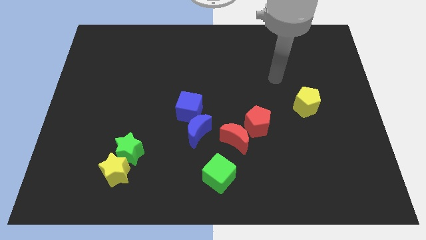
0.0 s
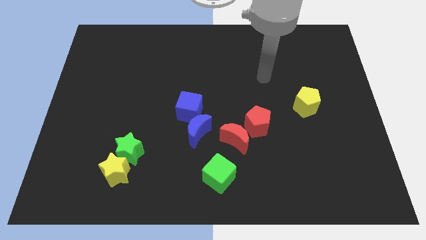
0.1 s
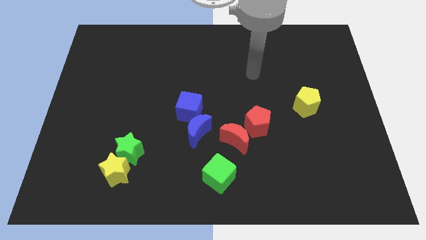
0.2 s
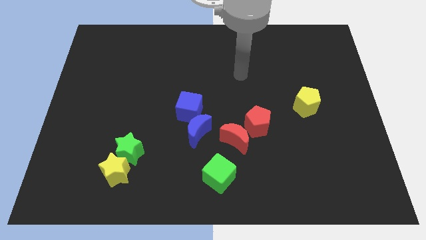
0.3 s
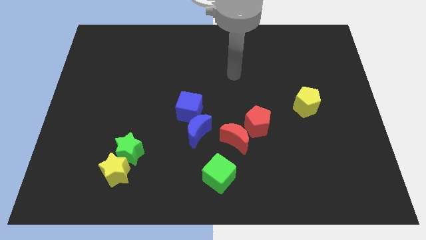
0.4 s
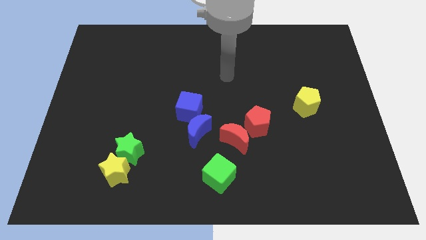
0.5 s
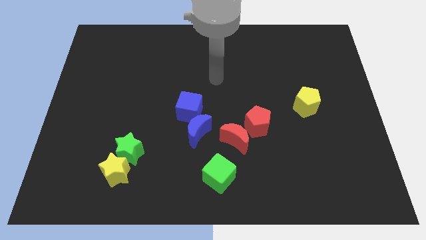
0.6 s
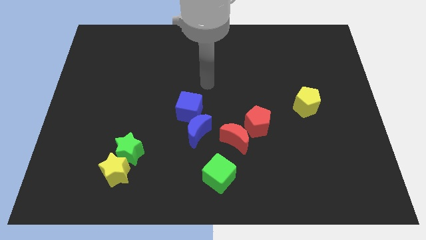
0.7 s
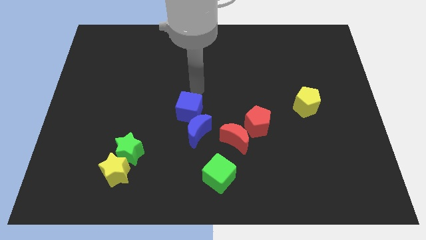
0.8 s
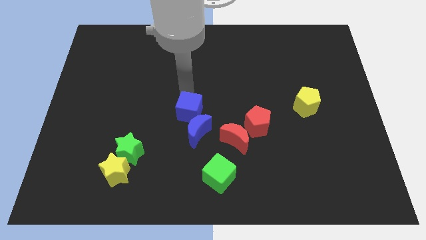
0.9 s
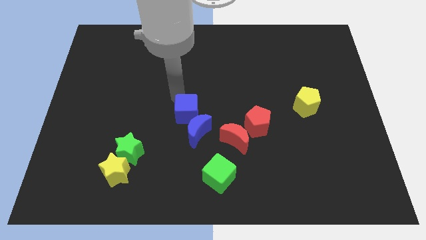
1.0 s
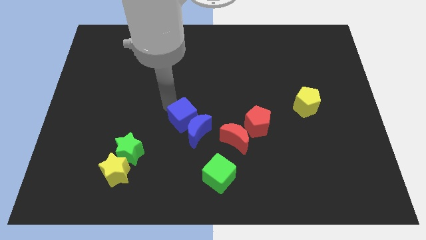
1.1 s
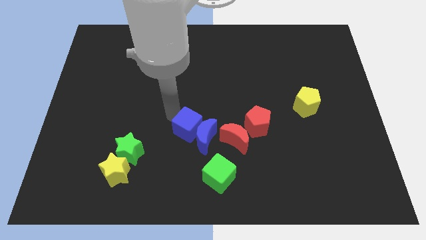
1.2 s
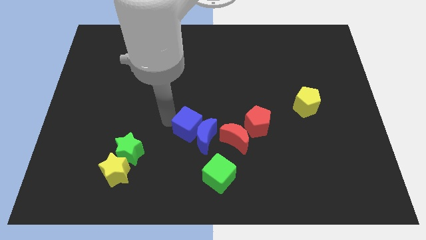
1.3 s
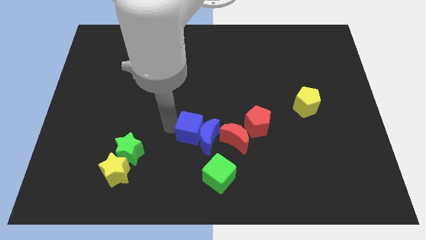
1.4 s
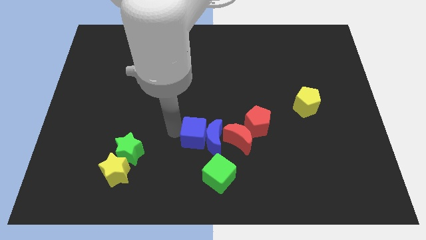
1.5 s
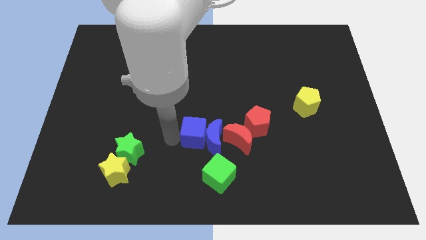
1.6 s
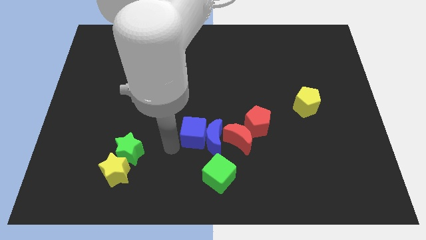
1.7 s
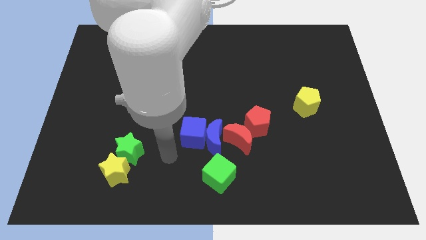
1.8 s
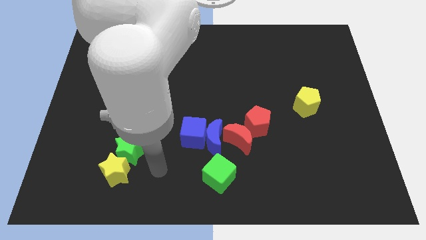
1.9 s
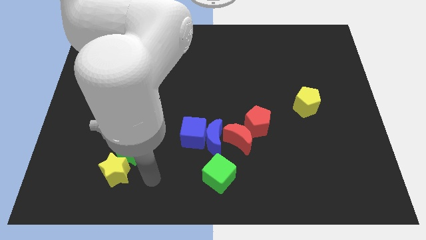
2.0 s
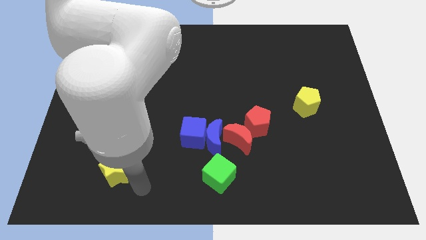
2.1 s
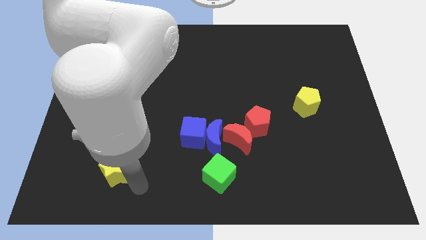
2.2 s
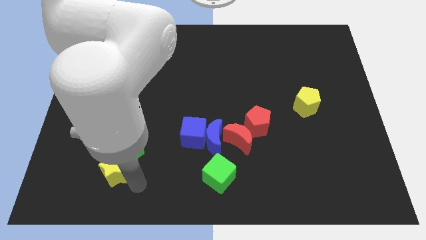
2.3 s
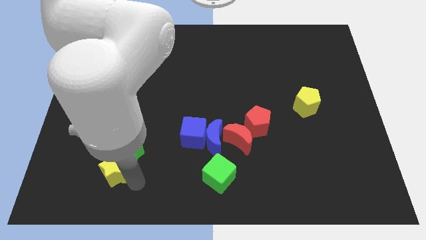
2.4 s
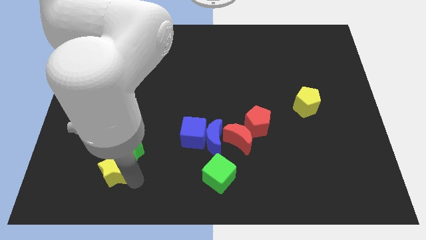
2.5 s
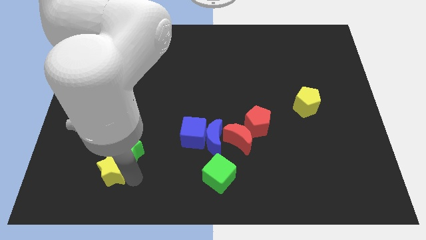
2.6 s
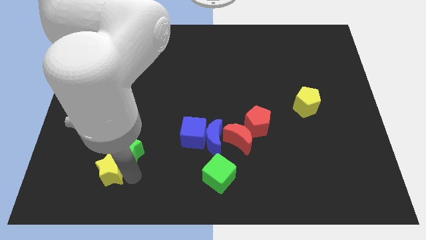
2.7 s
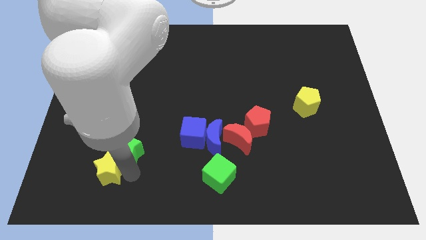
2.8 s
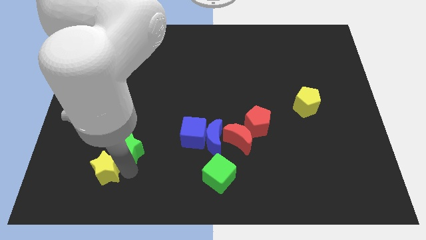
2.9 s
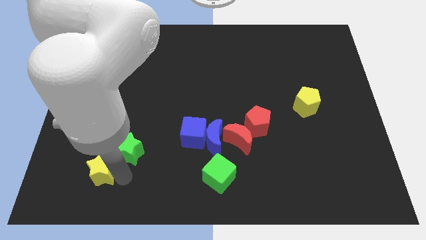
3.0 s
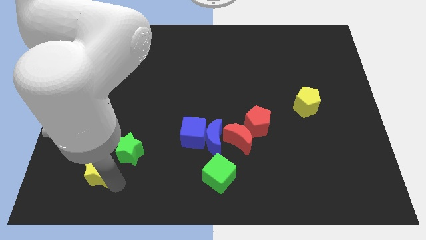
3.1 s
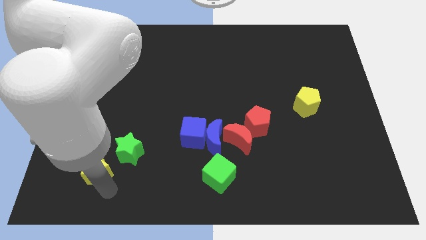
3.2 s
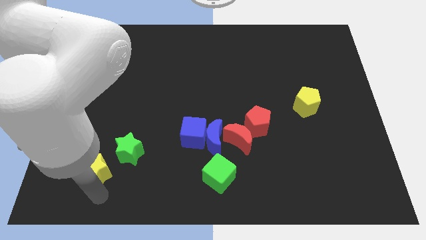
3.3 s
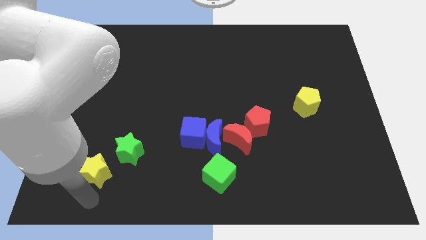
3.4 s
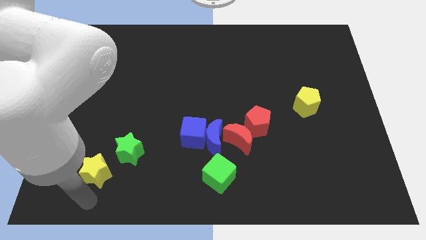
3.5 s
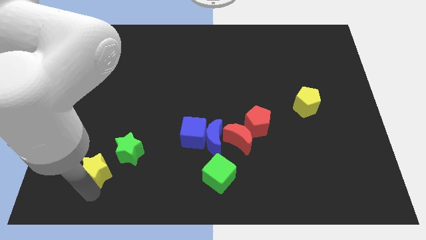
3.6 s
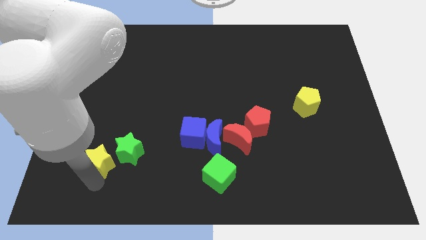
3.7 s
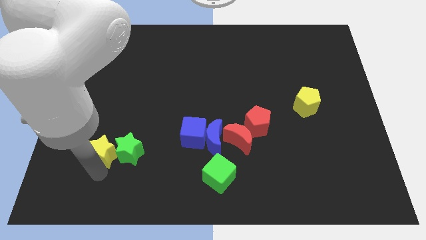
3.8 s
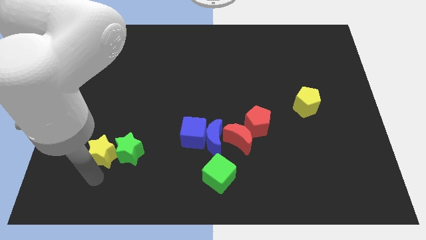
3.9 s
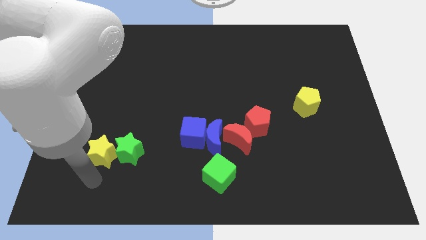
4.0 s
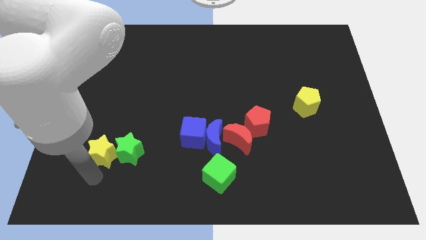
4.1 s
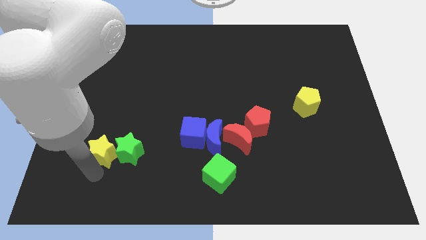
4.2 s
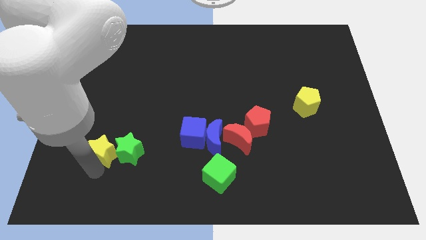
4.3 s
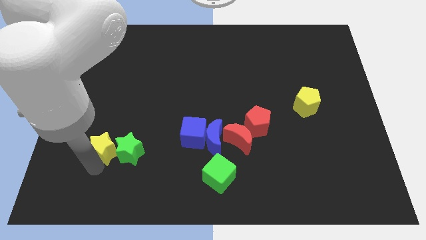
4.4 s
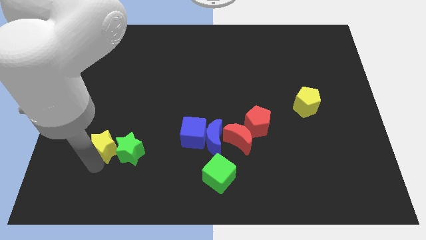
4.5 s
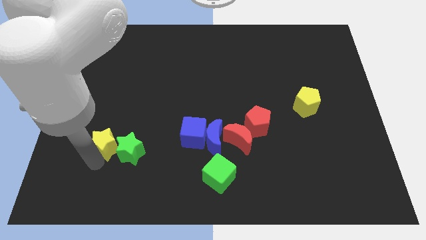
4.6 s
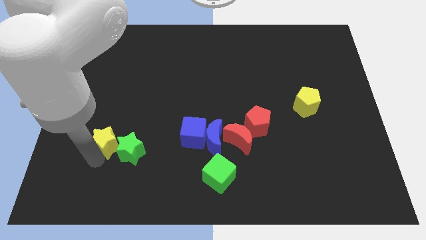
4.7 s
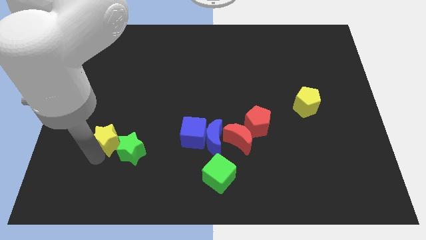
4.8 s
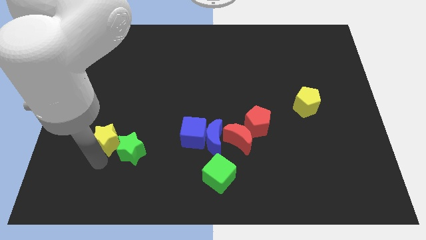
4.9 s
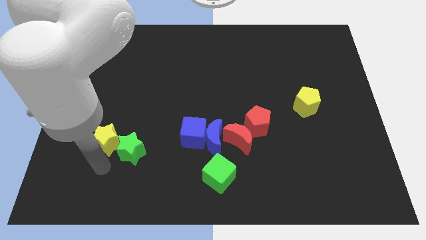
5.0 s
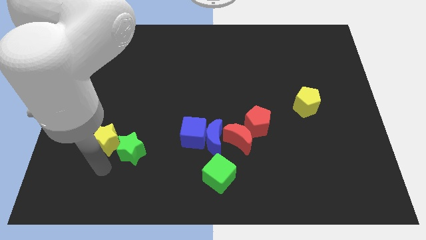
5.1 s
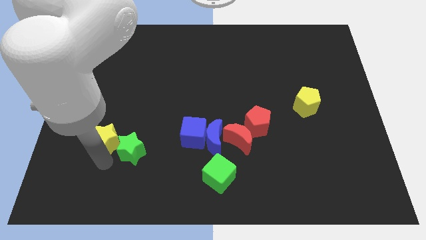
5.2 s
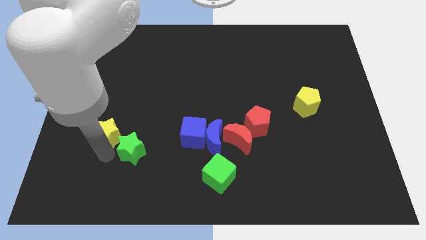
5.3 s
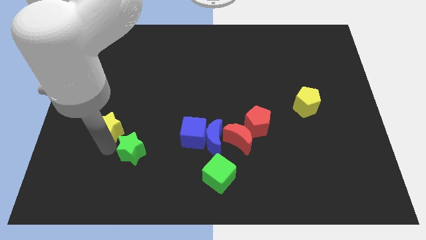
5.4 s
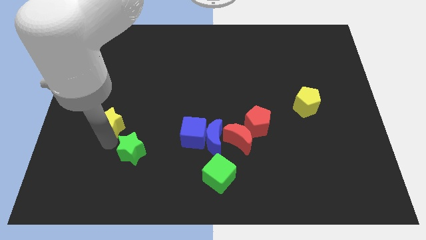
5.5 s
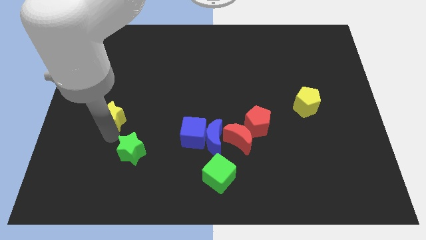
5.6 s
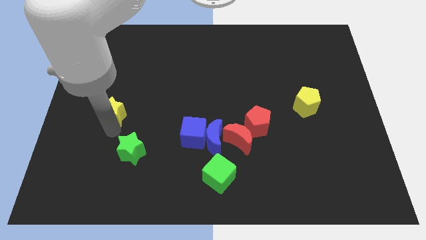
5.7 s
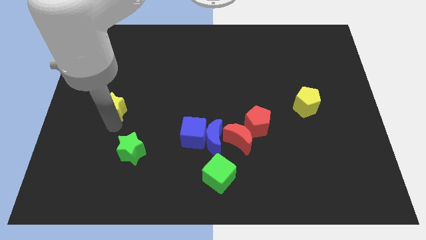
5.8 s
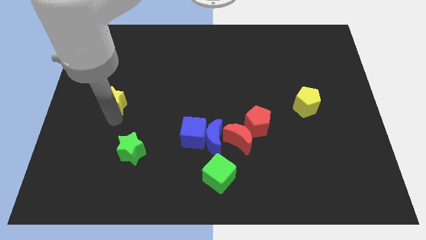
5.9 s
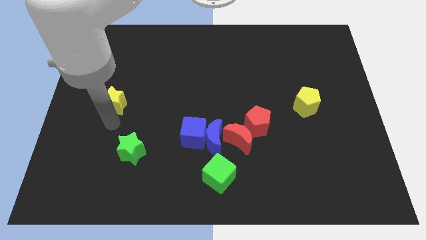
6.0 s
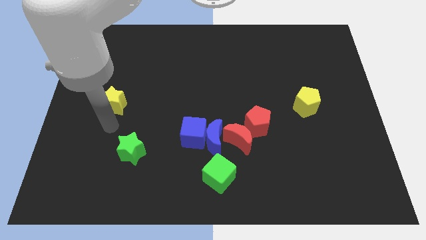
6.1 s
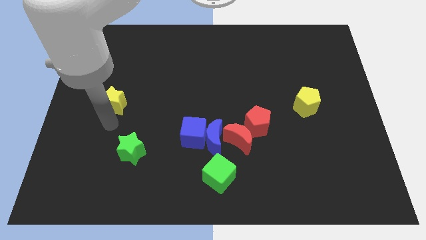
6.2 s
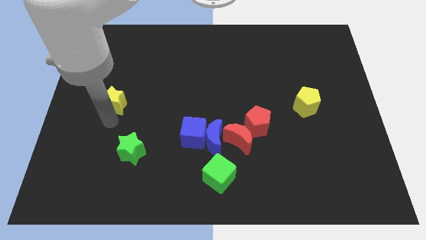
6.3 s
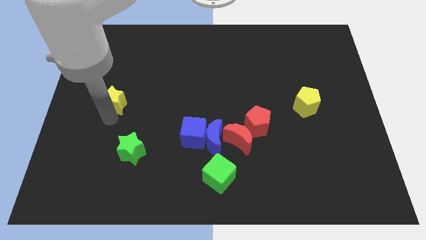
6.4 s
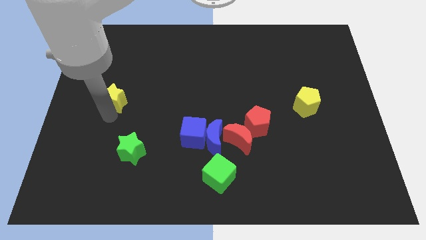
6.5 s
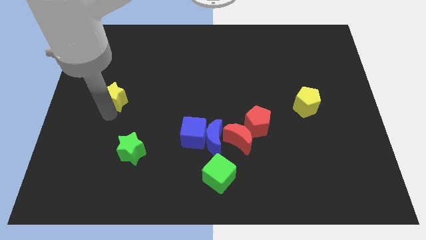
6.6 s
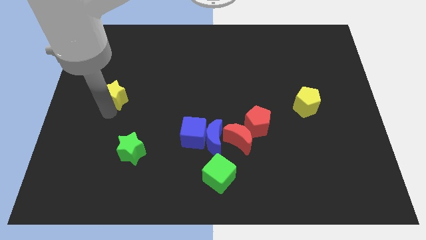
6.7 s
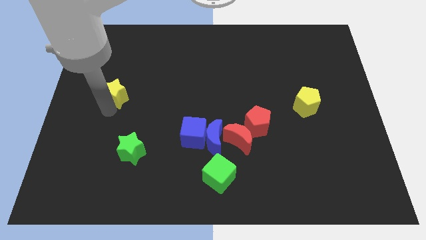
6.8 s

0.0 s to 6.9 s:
slide the yellow star up

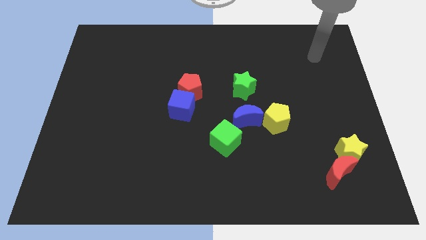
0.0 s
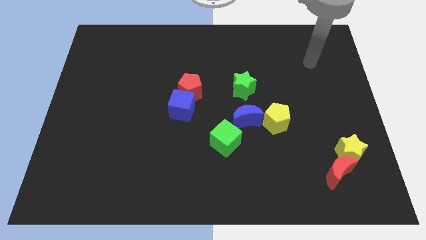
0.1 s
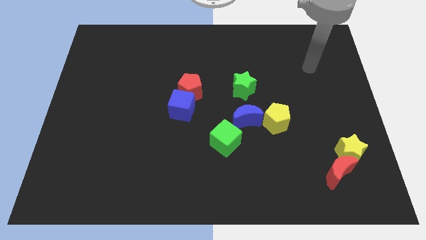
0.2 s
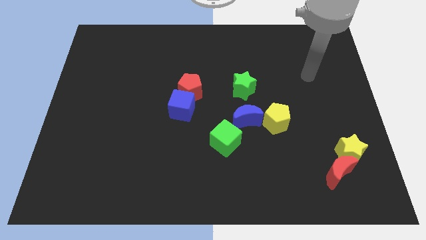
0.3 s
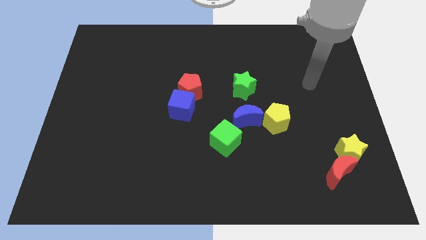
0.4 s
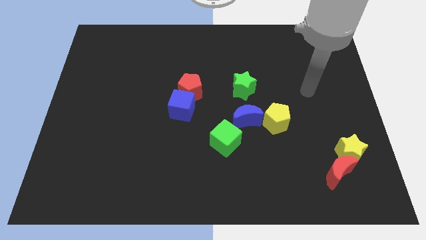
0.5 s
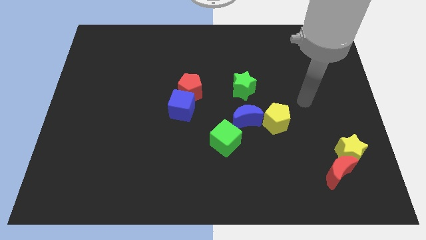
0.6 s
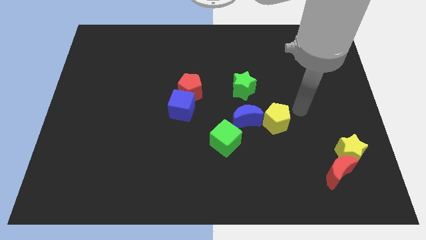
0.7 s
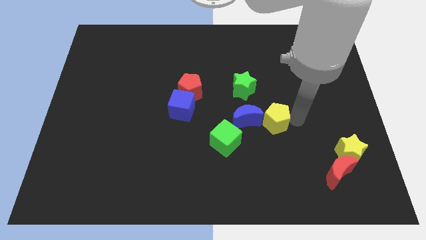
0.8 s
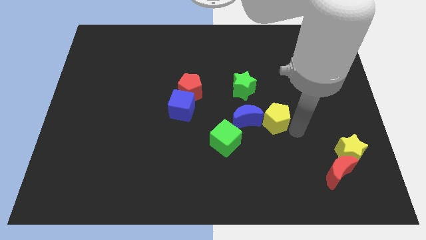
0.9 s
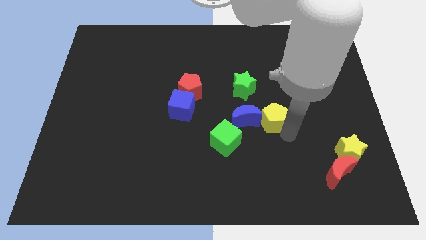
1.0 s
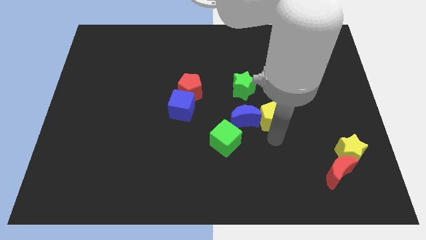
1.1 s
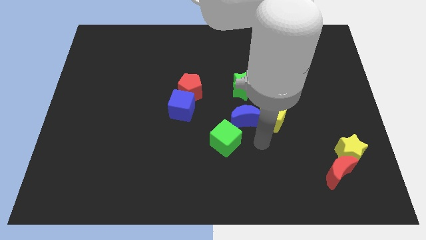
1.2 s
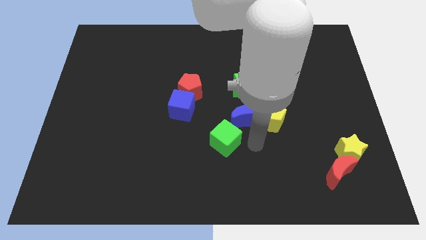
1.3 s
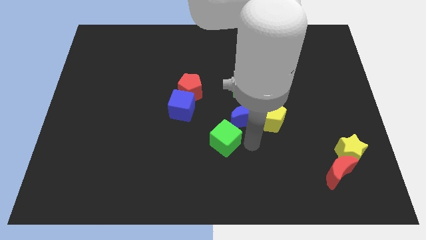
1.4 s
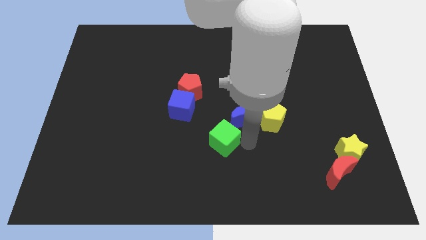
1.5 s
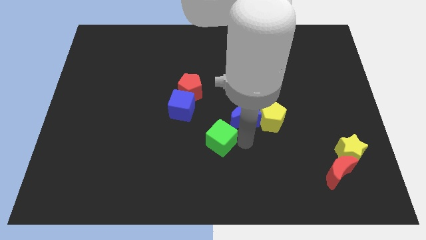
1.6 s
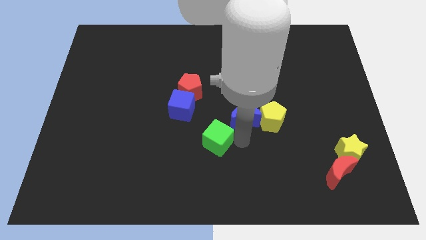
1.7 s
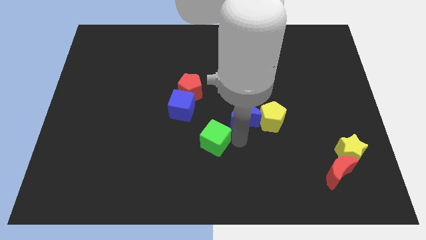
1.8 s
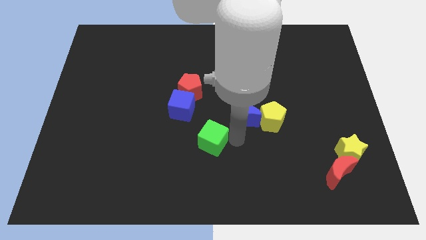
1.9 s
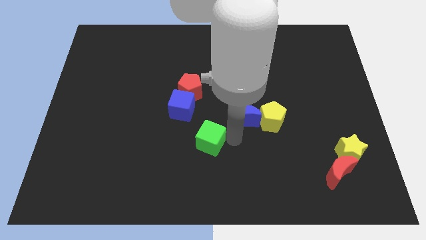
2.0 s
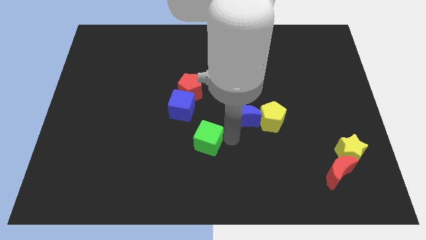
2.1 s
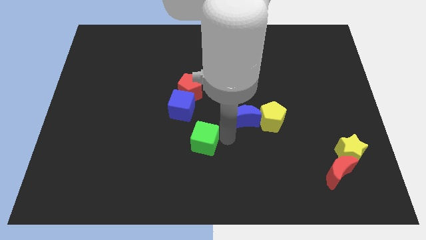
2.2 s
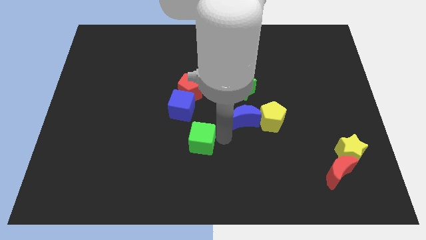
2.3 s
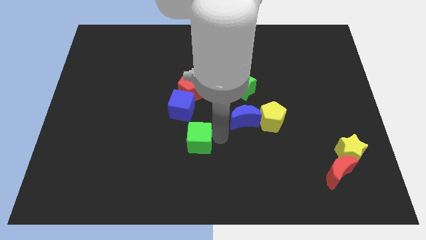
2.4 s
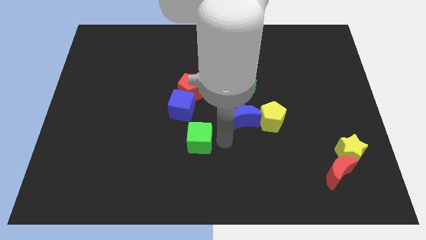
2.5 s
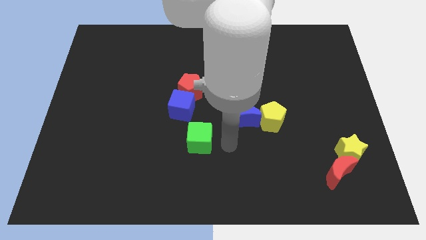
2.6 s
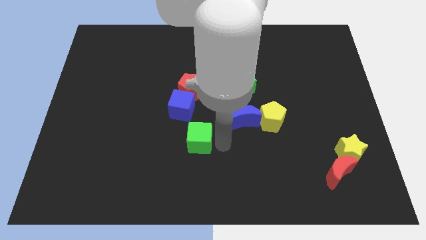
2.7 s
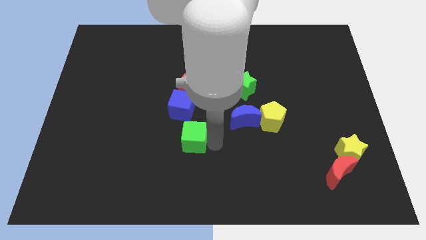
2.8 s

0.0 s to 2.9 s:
slightly move the green cube left
